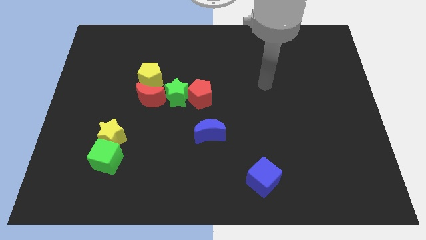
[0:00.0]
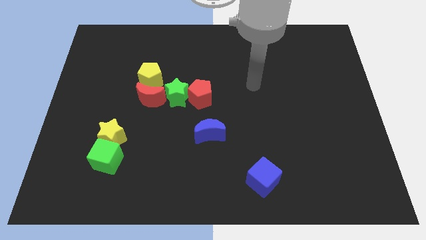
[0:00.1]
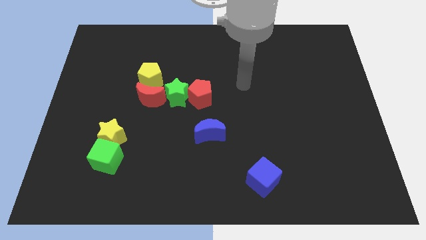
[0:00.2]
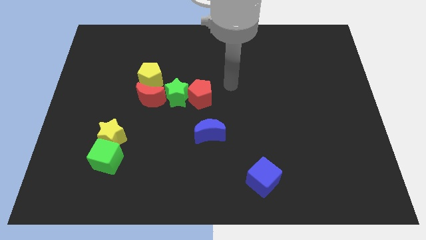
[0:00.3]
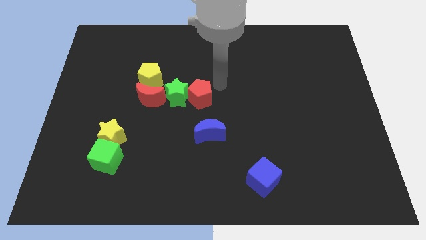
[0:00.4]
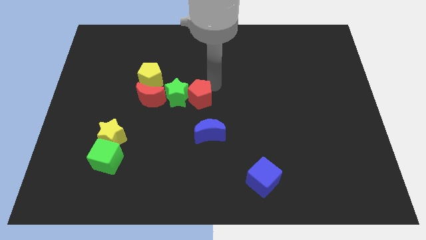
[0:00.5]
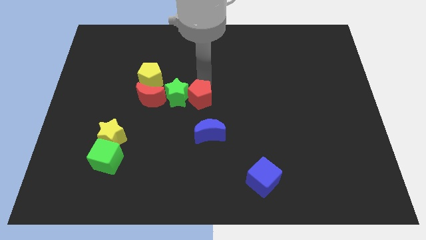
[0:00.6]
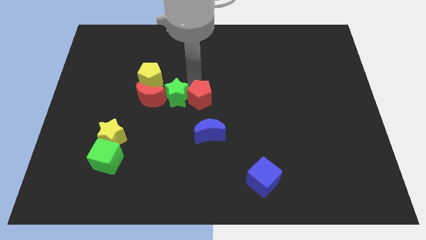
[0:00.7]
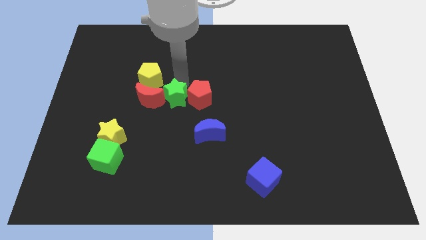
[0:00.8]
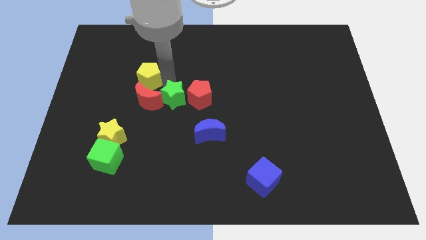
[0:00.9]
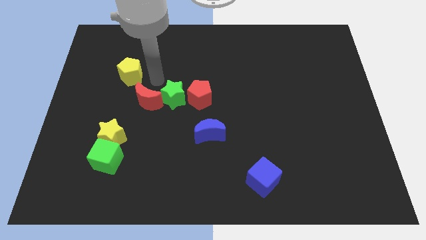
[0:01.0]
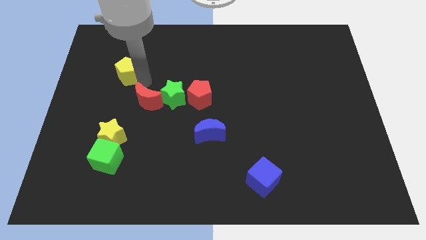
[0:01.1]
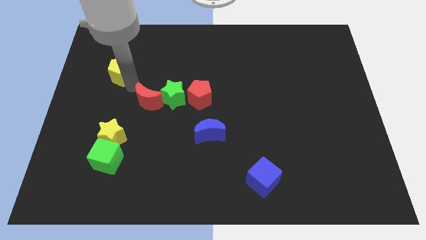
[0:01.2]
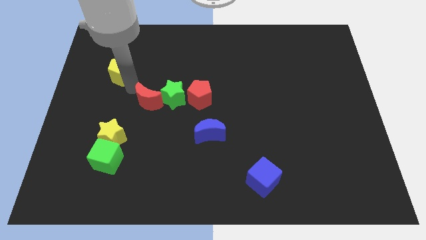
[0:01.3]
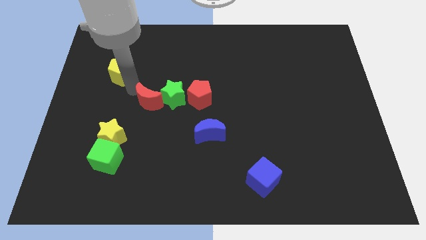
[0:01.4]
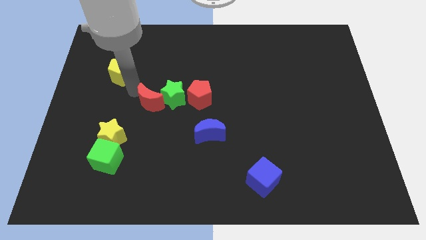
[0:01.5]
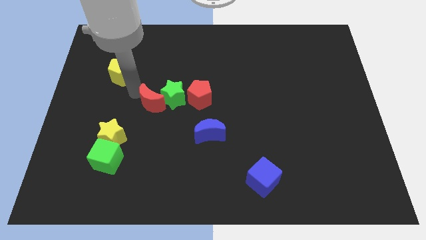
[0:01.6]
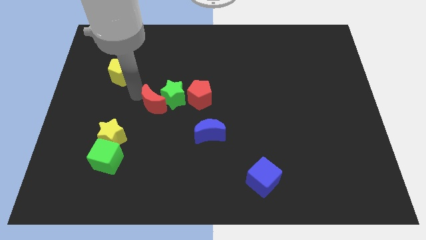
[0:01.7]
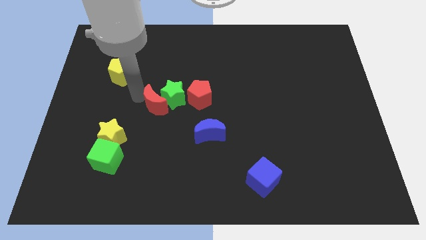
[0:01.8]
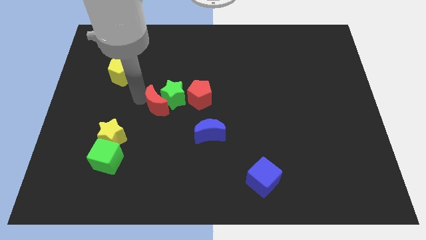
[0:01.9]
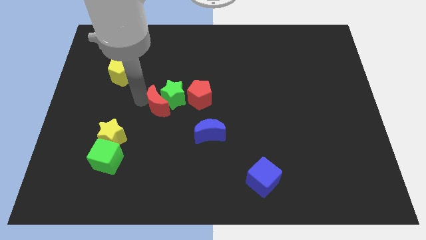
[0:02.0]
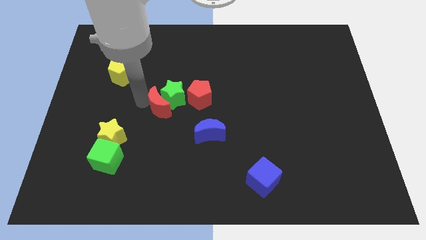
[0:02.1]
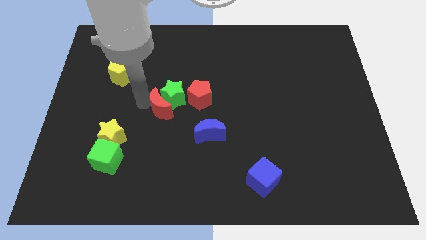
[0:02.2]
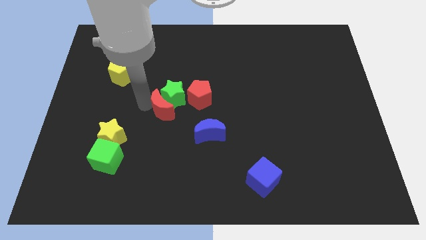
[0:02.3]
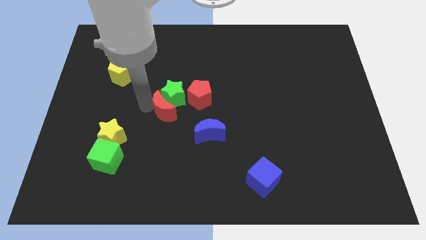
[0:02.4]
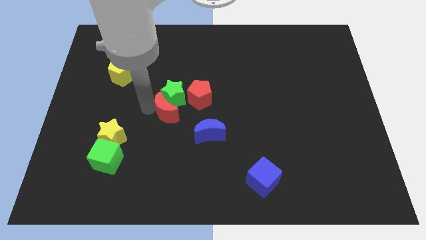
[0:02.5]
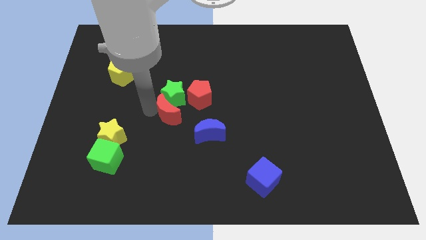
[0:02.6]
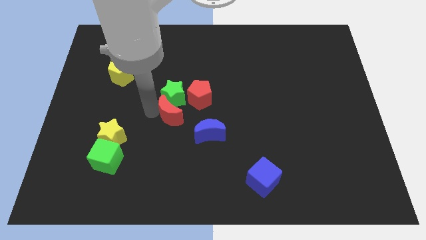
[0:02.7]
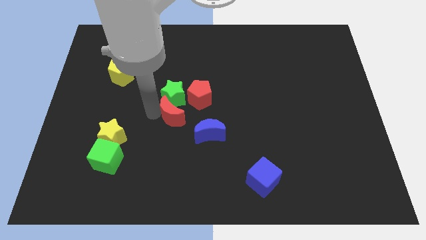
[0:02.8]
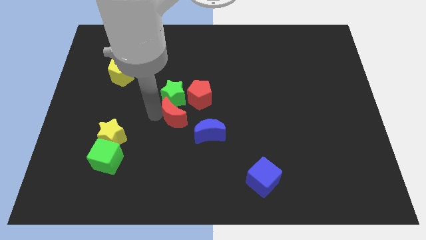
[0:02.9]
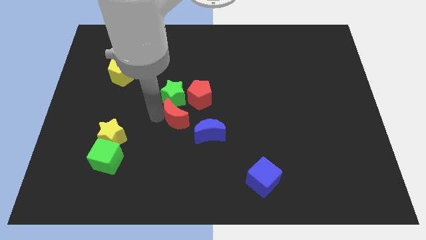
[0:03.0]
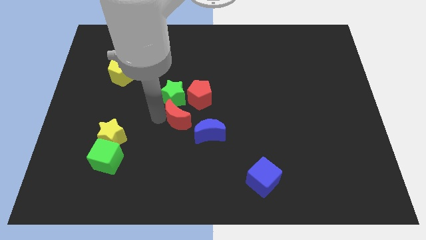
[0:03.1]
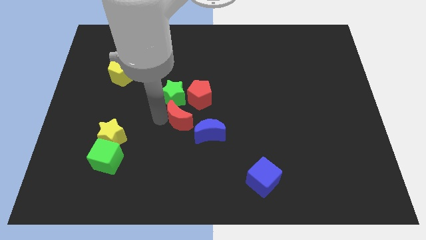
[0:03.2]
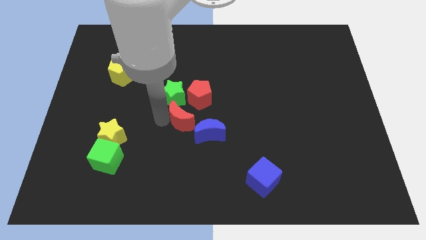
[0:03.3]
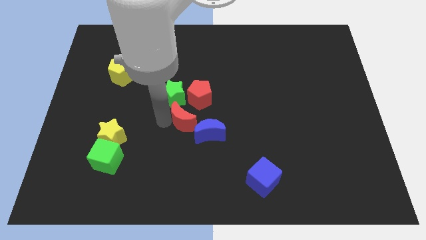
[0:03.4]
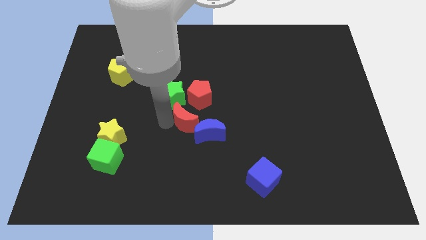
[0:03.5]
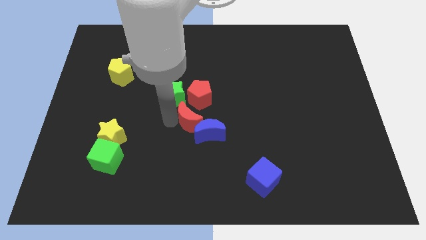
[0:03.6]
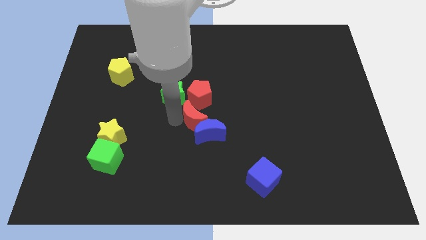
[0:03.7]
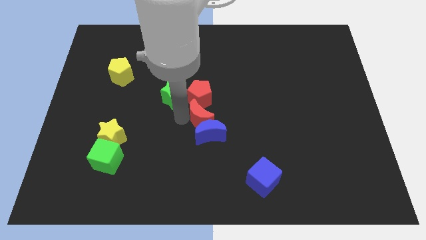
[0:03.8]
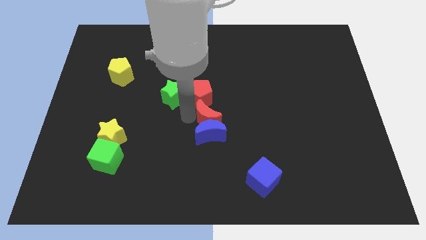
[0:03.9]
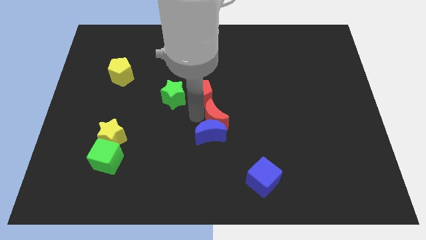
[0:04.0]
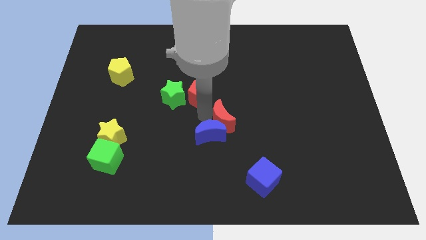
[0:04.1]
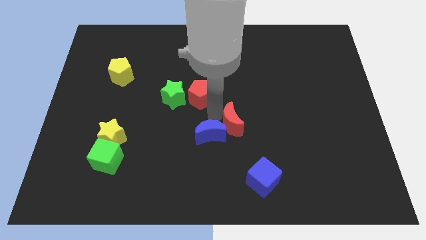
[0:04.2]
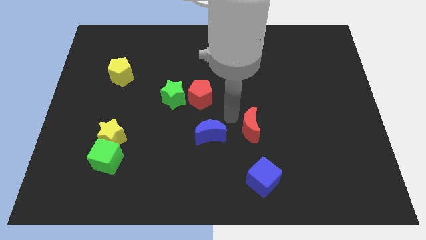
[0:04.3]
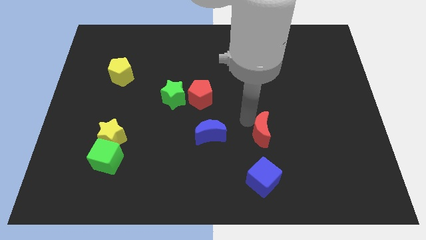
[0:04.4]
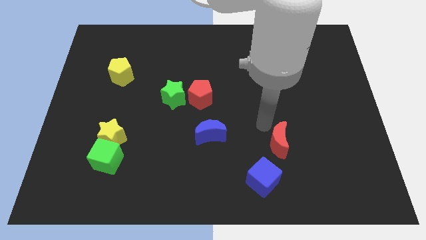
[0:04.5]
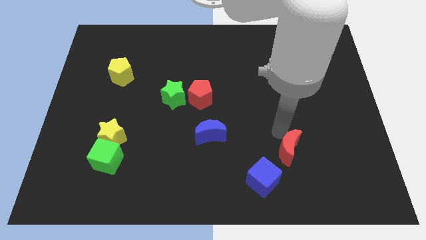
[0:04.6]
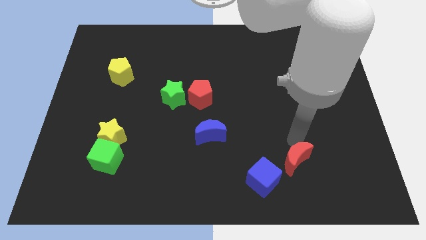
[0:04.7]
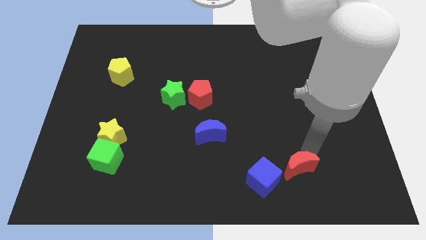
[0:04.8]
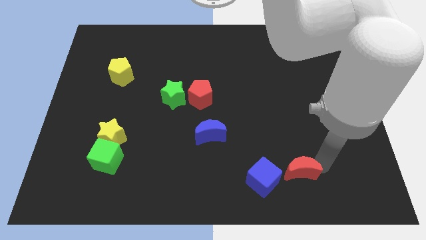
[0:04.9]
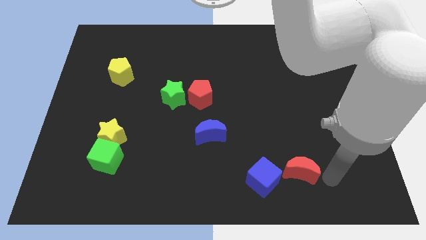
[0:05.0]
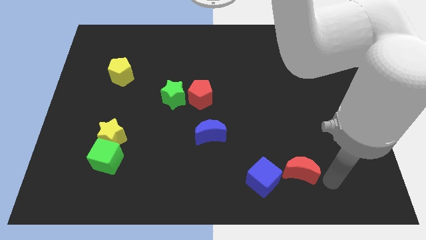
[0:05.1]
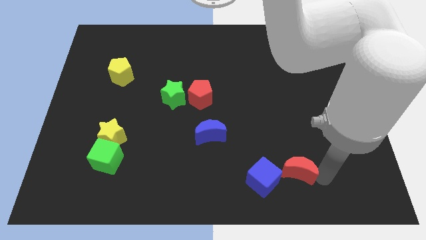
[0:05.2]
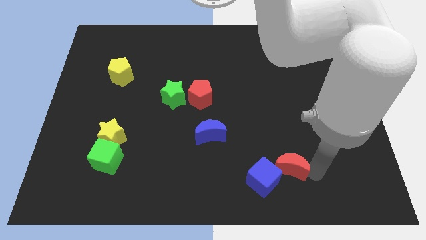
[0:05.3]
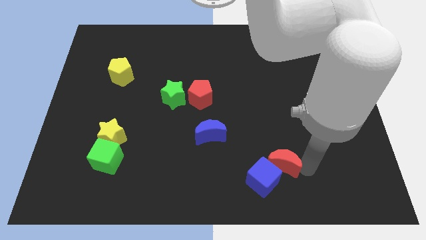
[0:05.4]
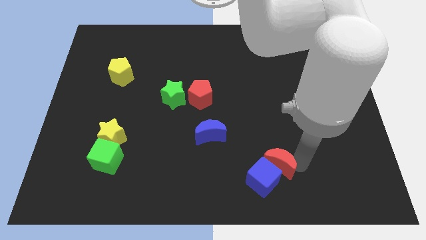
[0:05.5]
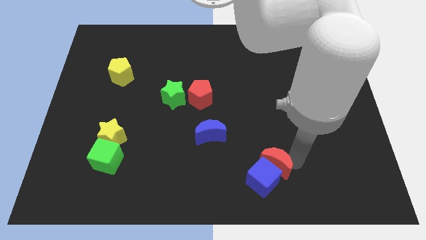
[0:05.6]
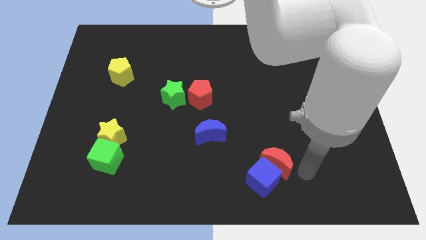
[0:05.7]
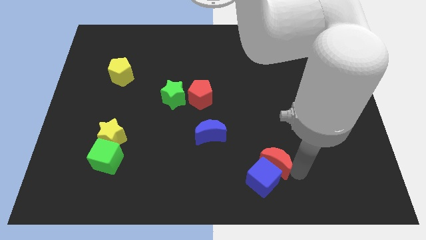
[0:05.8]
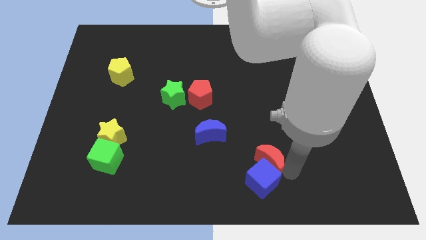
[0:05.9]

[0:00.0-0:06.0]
move the red moon to the top left side of the blue cube
